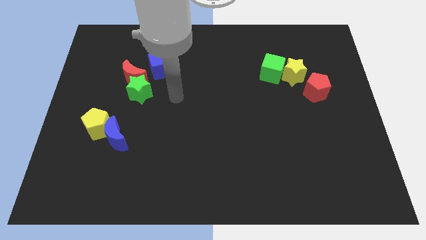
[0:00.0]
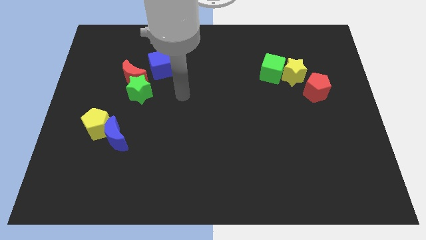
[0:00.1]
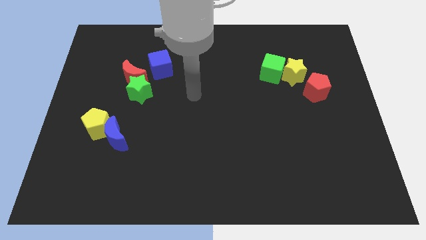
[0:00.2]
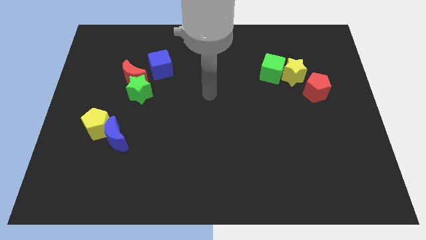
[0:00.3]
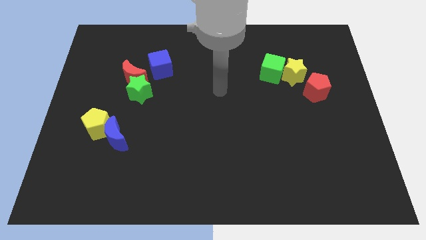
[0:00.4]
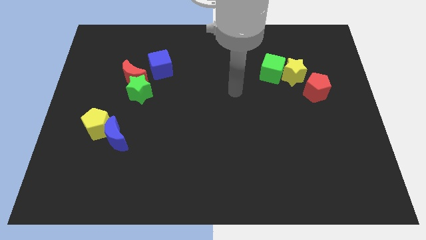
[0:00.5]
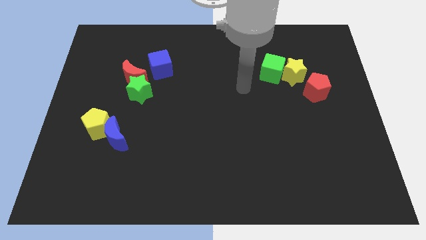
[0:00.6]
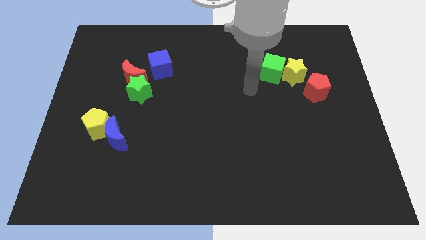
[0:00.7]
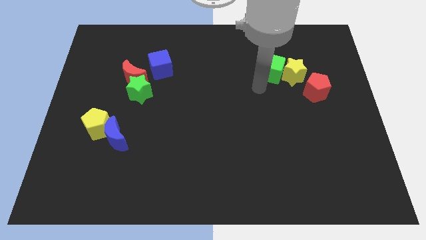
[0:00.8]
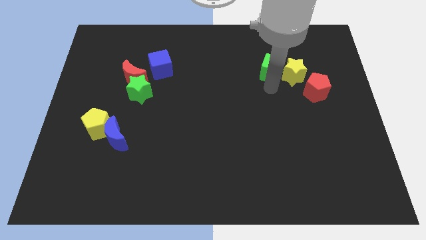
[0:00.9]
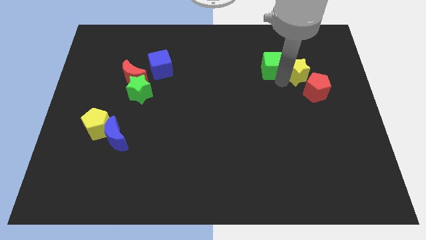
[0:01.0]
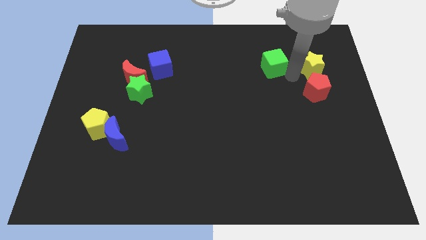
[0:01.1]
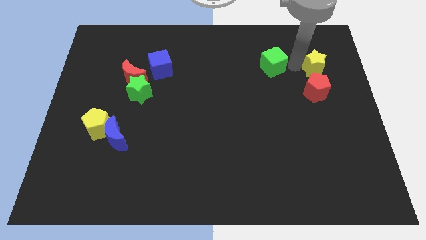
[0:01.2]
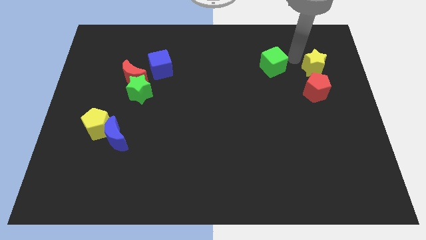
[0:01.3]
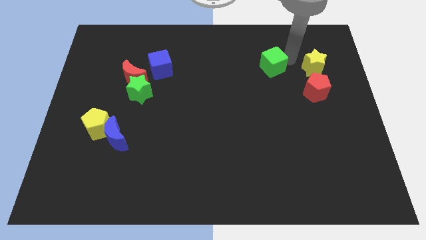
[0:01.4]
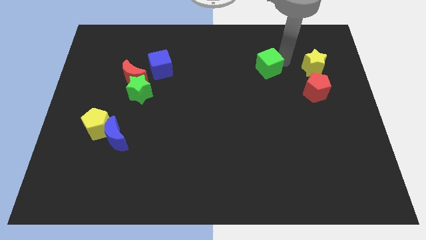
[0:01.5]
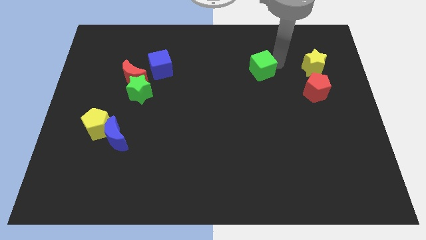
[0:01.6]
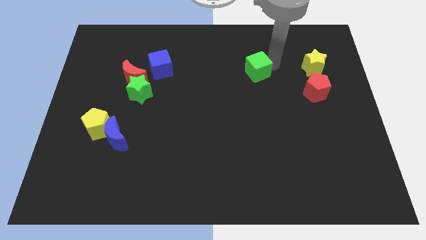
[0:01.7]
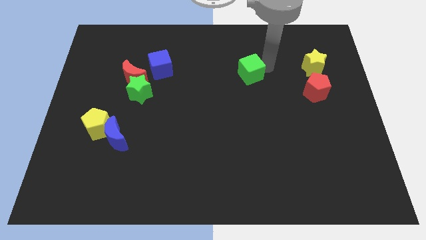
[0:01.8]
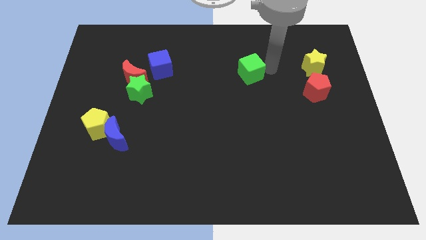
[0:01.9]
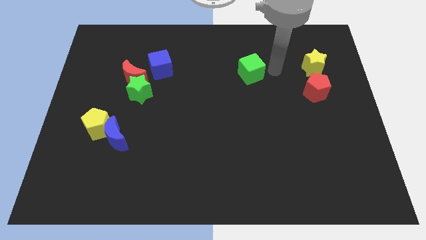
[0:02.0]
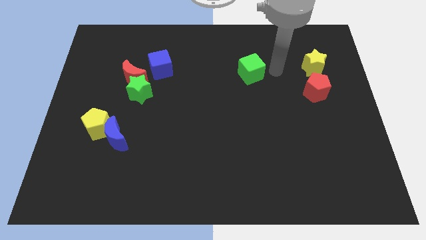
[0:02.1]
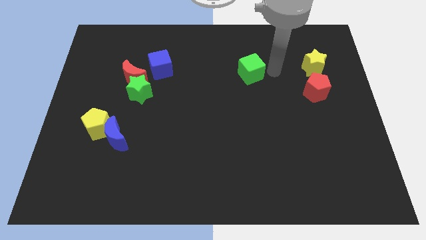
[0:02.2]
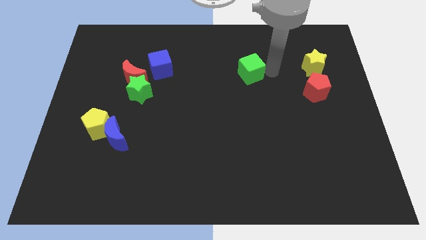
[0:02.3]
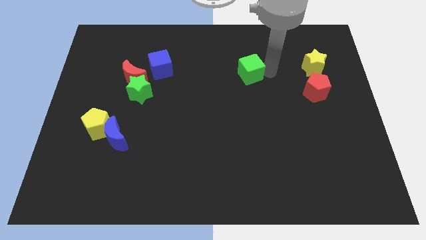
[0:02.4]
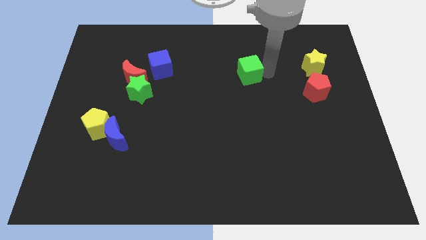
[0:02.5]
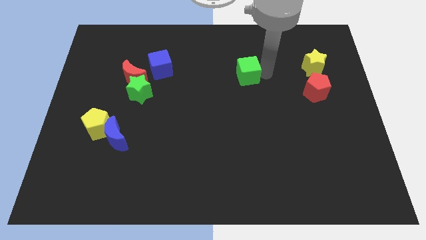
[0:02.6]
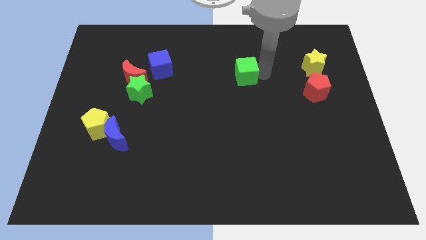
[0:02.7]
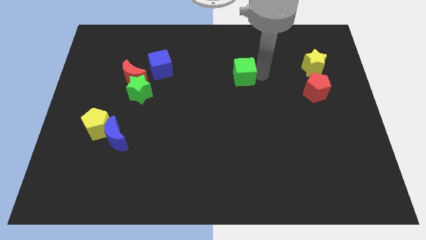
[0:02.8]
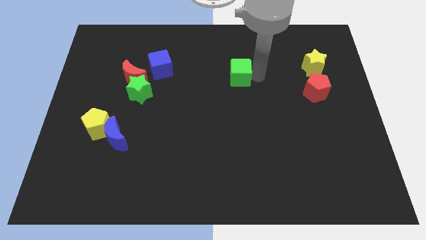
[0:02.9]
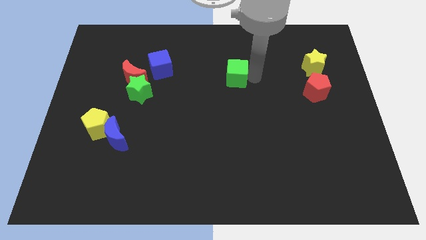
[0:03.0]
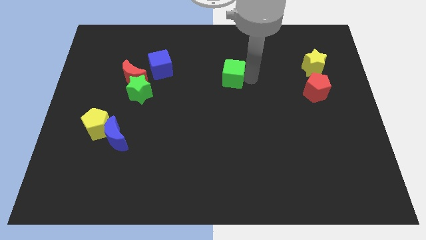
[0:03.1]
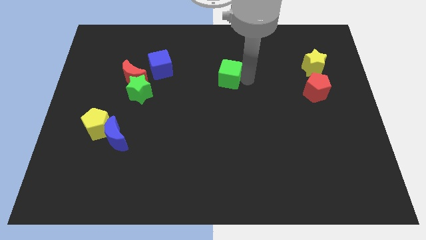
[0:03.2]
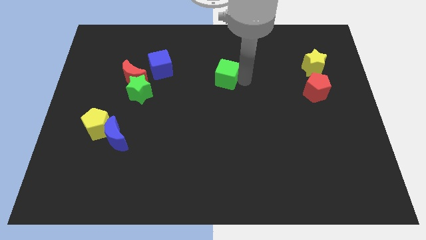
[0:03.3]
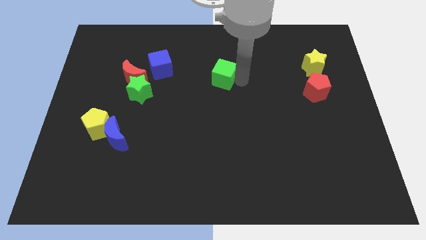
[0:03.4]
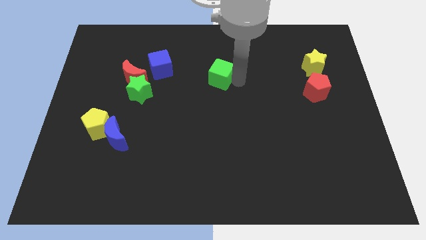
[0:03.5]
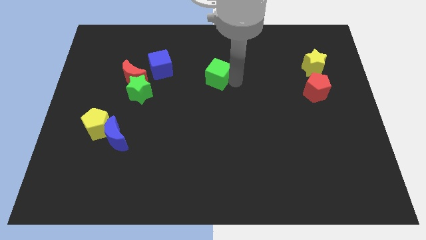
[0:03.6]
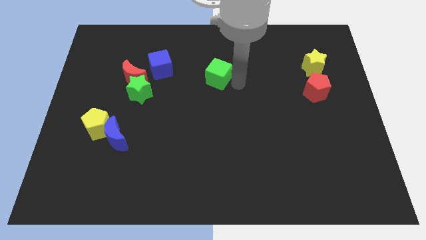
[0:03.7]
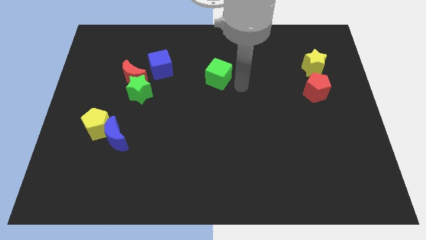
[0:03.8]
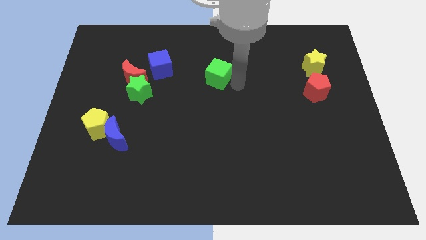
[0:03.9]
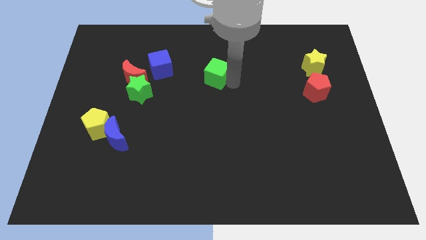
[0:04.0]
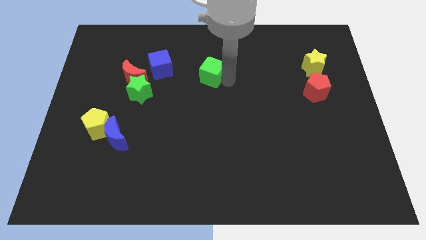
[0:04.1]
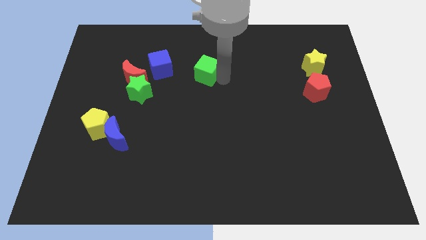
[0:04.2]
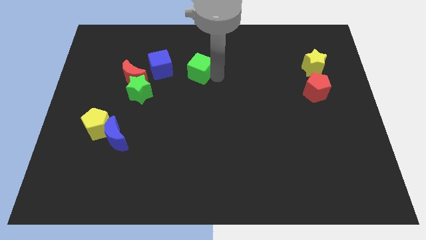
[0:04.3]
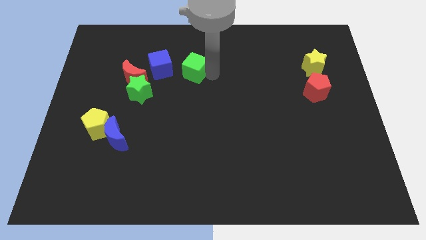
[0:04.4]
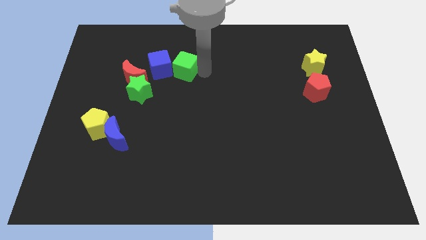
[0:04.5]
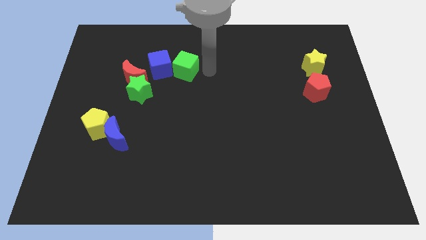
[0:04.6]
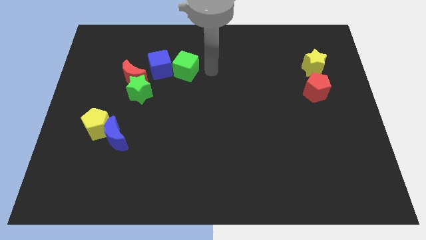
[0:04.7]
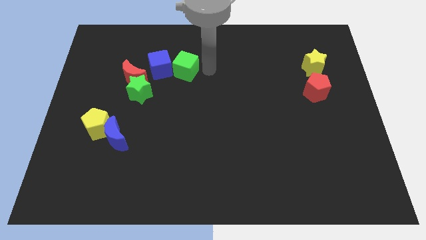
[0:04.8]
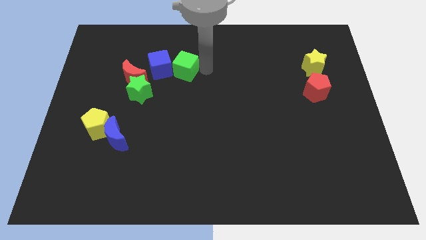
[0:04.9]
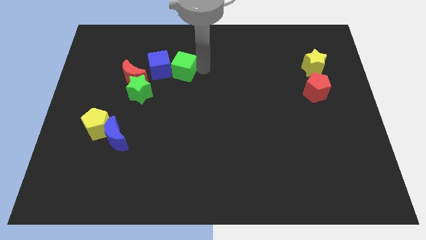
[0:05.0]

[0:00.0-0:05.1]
push the green cube to the blue cube

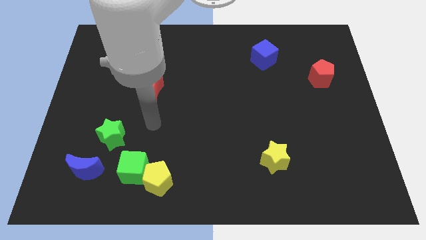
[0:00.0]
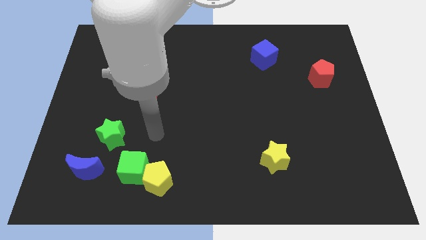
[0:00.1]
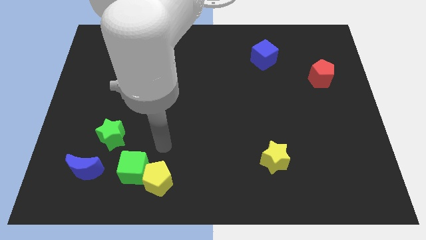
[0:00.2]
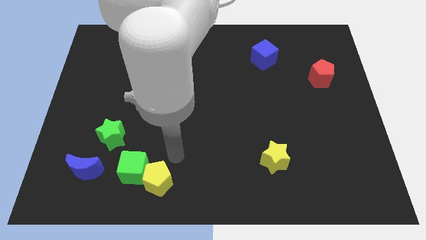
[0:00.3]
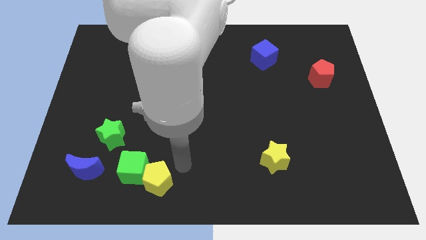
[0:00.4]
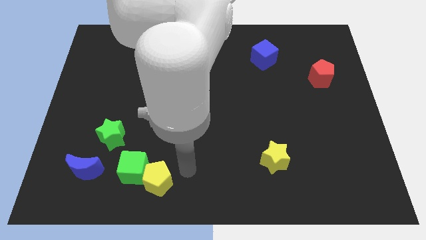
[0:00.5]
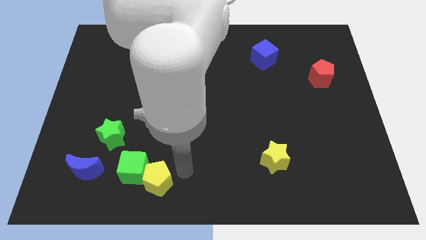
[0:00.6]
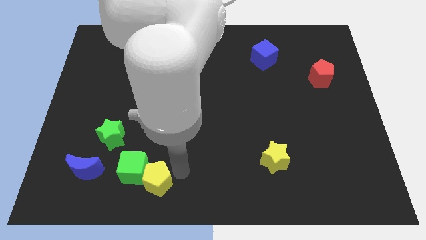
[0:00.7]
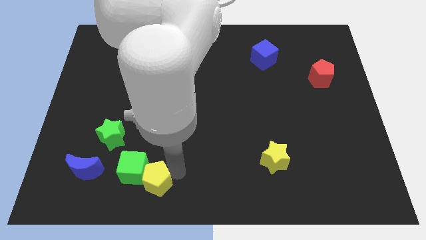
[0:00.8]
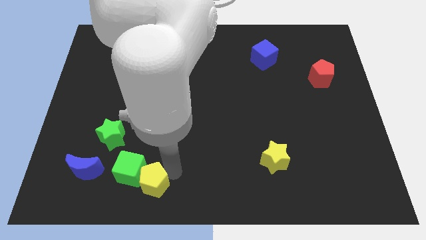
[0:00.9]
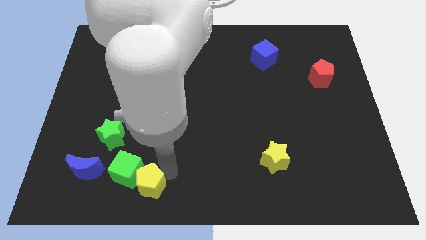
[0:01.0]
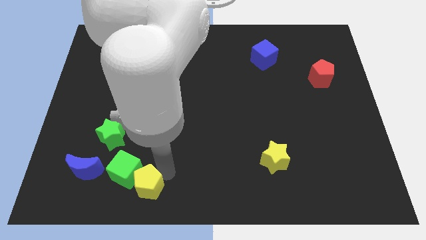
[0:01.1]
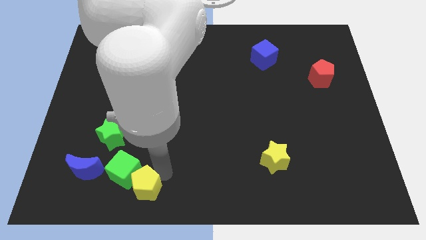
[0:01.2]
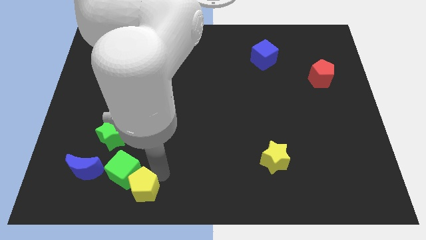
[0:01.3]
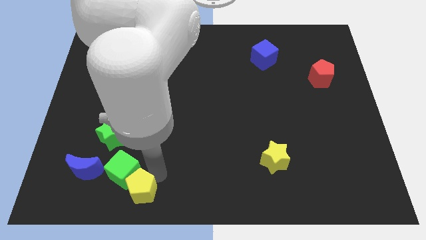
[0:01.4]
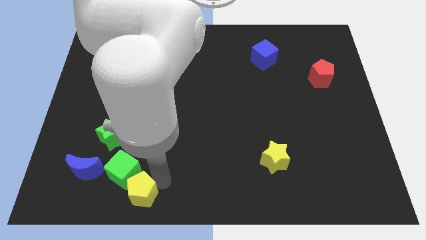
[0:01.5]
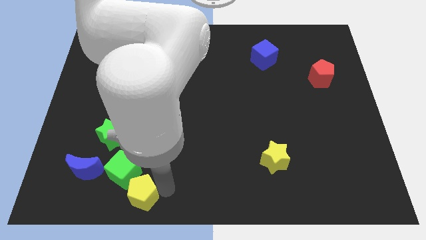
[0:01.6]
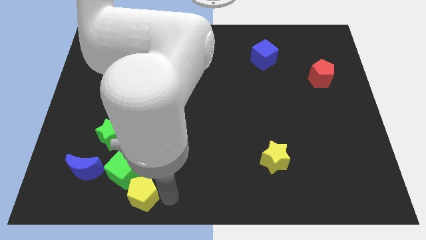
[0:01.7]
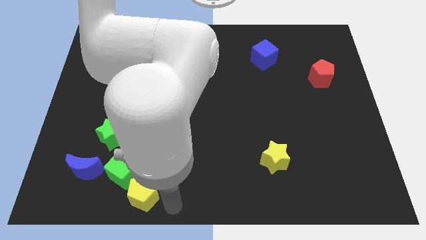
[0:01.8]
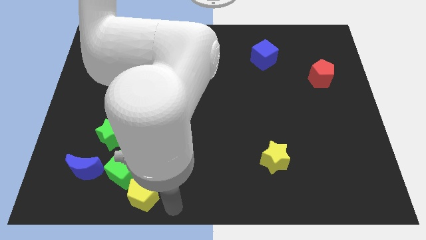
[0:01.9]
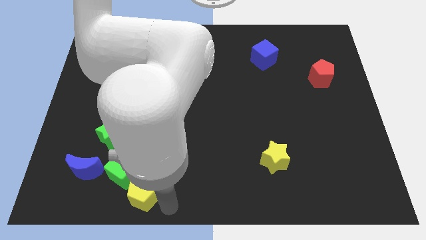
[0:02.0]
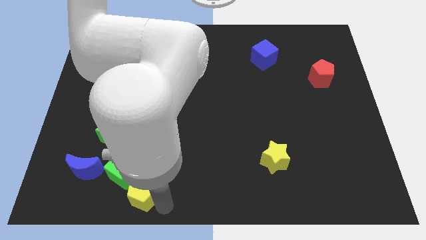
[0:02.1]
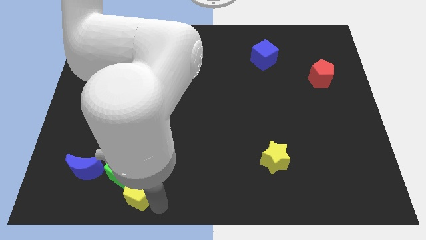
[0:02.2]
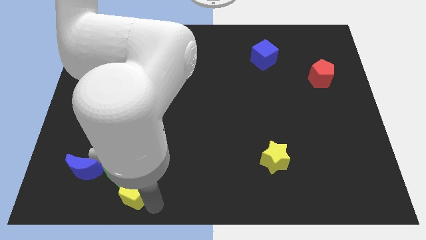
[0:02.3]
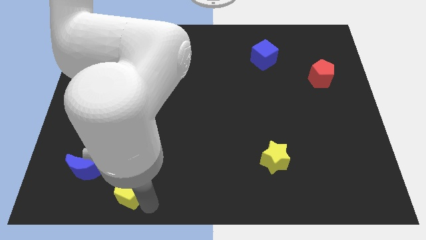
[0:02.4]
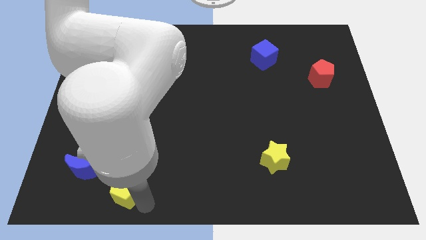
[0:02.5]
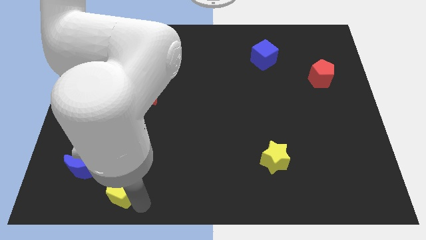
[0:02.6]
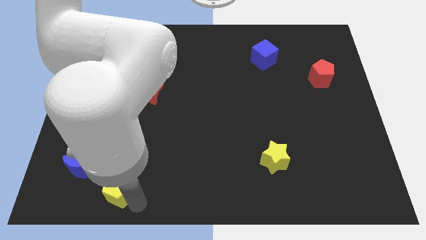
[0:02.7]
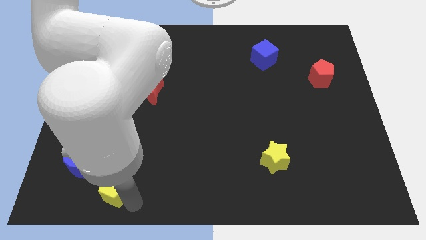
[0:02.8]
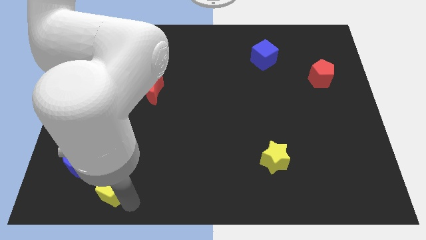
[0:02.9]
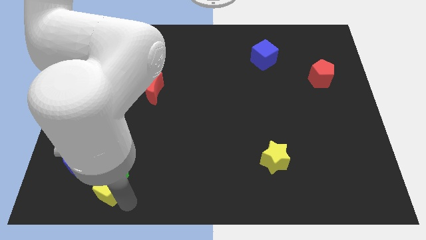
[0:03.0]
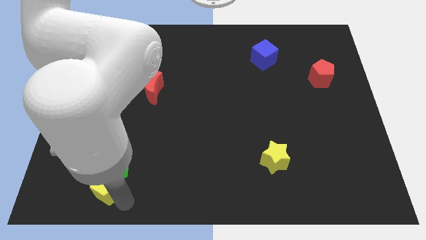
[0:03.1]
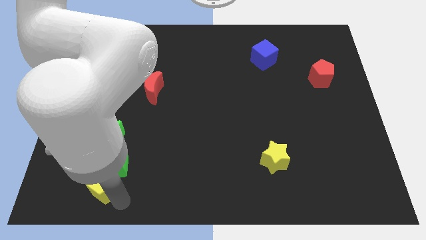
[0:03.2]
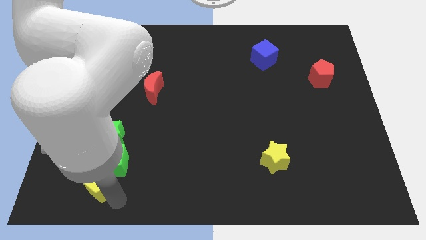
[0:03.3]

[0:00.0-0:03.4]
move the yellow pentagon towards the blue moon
